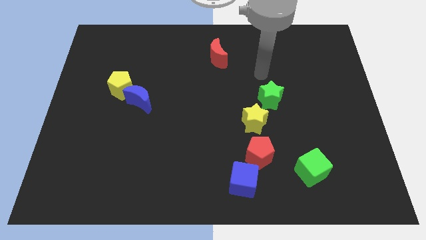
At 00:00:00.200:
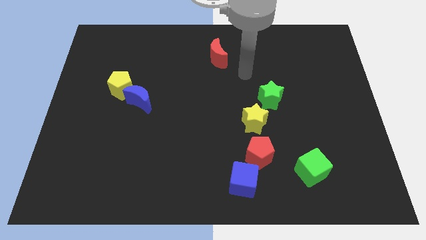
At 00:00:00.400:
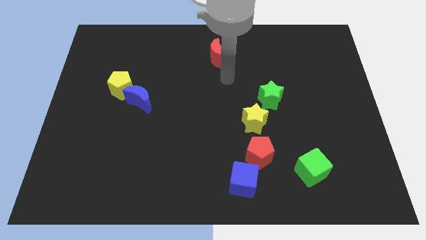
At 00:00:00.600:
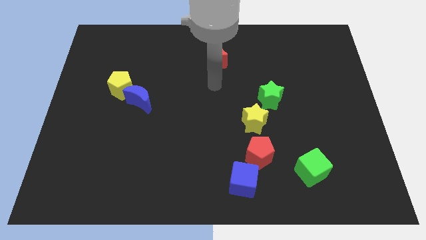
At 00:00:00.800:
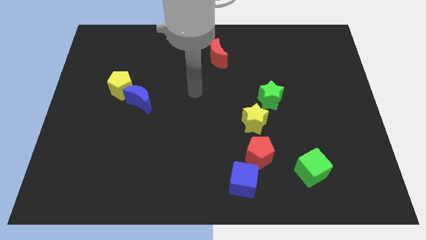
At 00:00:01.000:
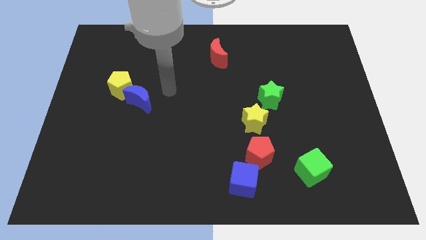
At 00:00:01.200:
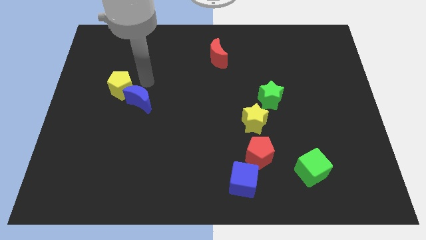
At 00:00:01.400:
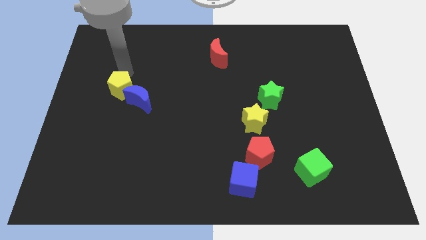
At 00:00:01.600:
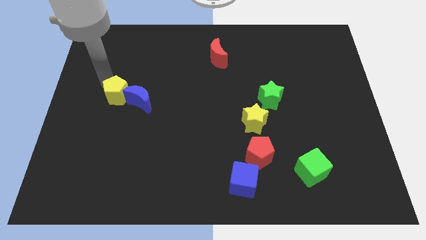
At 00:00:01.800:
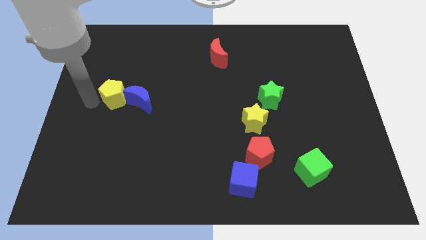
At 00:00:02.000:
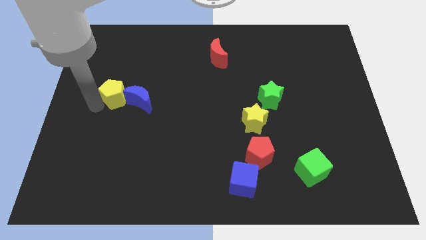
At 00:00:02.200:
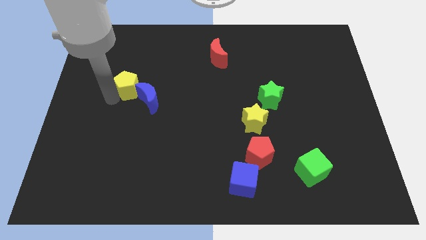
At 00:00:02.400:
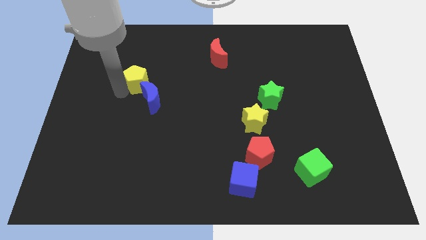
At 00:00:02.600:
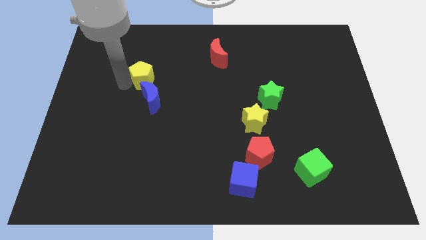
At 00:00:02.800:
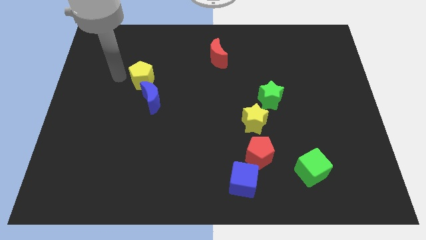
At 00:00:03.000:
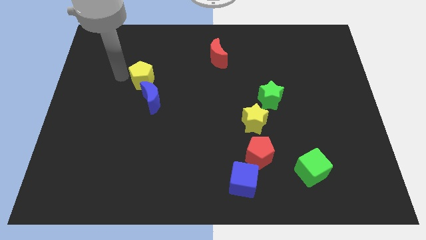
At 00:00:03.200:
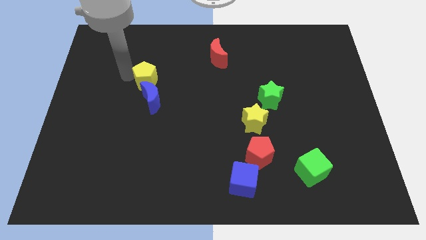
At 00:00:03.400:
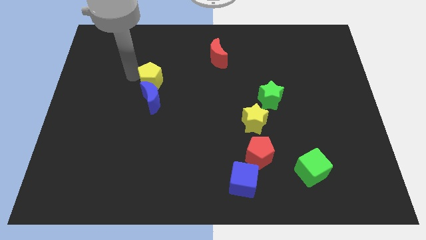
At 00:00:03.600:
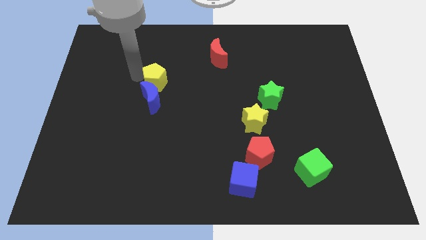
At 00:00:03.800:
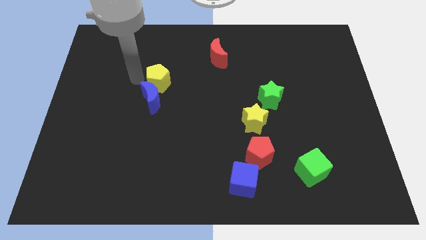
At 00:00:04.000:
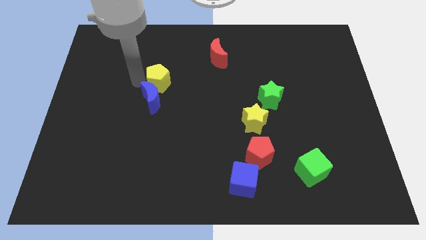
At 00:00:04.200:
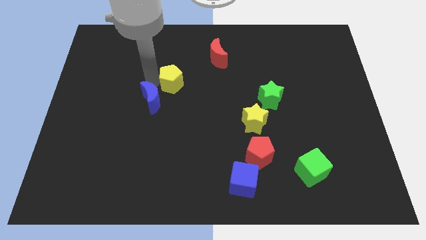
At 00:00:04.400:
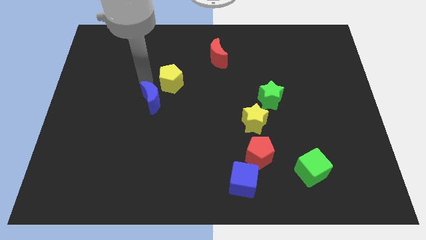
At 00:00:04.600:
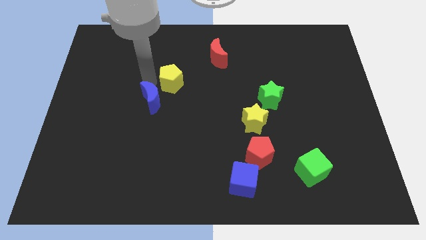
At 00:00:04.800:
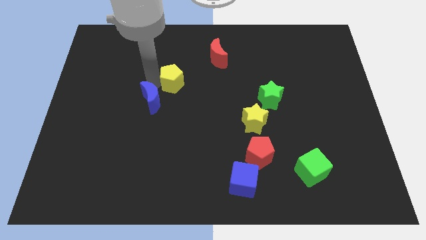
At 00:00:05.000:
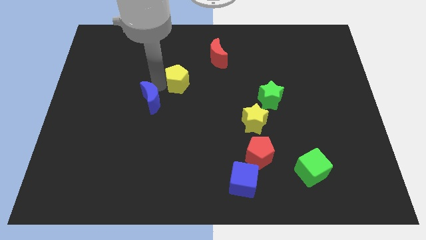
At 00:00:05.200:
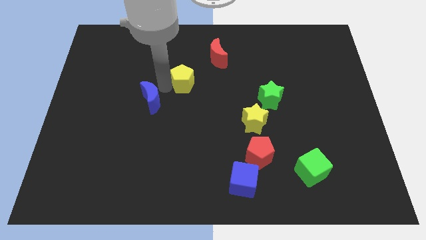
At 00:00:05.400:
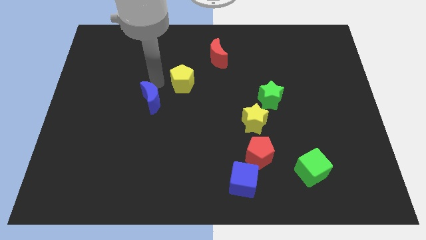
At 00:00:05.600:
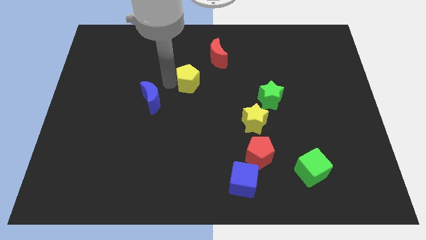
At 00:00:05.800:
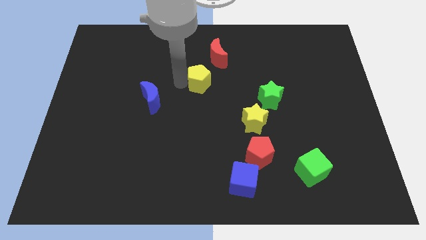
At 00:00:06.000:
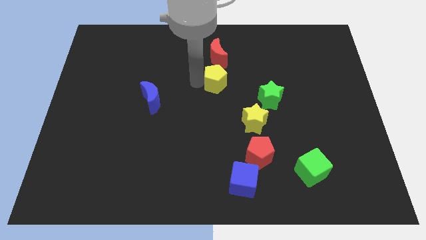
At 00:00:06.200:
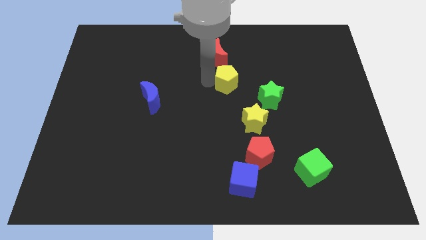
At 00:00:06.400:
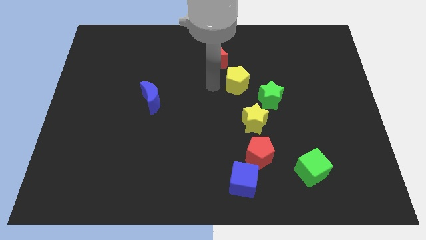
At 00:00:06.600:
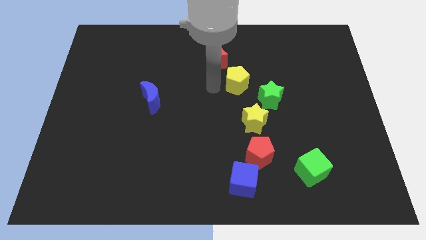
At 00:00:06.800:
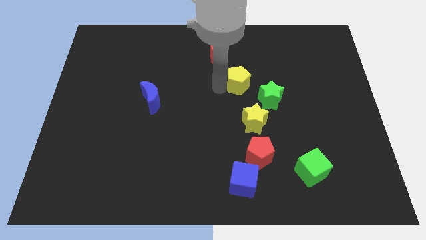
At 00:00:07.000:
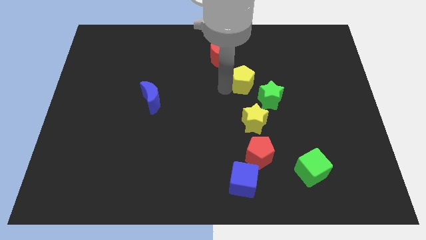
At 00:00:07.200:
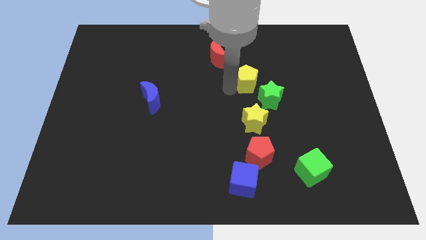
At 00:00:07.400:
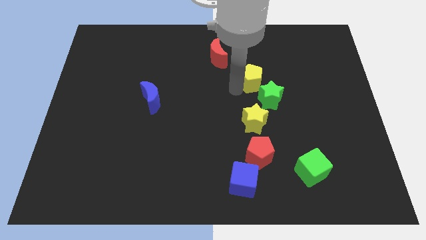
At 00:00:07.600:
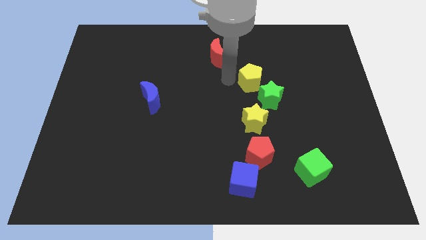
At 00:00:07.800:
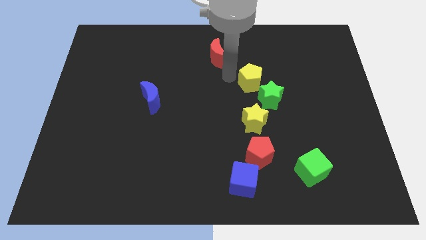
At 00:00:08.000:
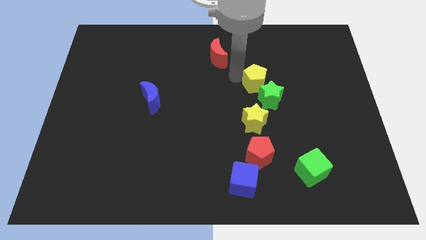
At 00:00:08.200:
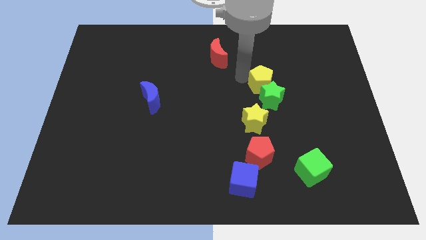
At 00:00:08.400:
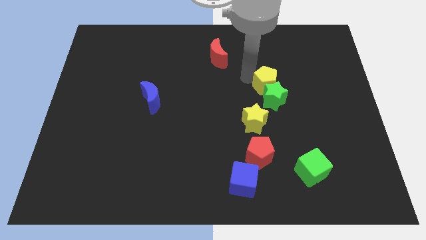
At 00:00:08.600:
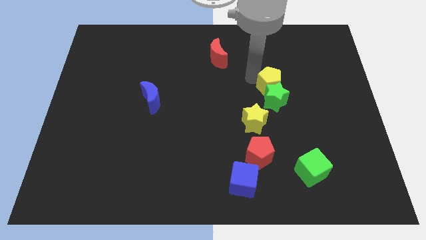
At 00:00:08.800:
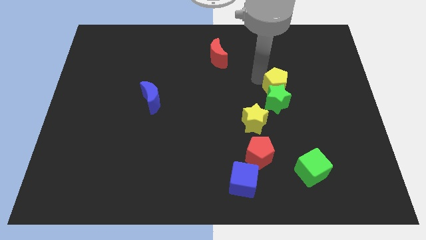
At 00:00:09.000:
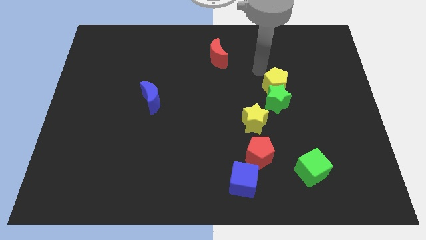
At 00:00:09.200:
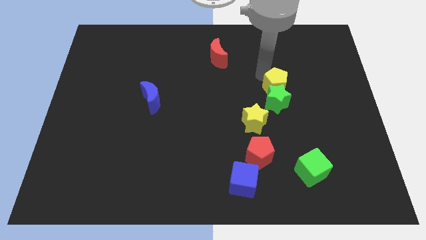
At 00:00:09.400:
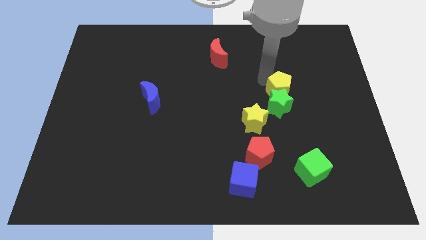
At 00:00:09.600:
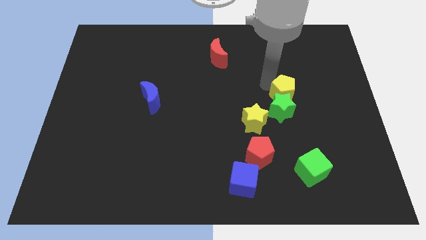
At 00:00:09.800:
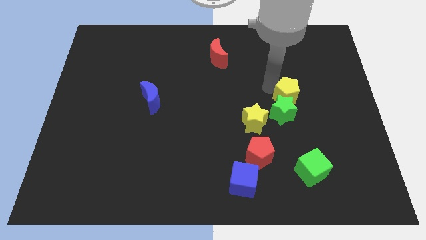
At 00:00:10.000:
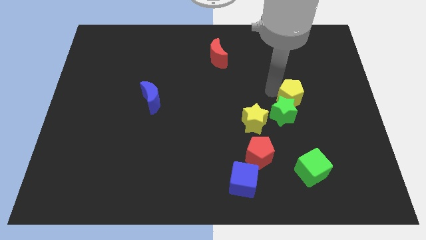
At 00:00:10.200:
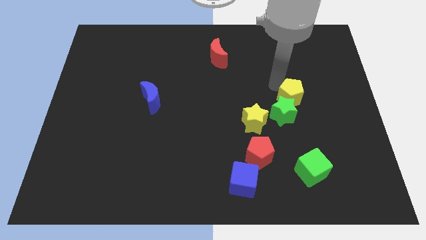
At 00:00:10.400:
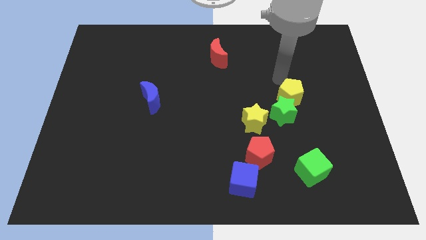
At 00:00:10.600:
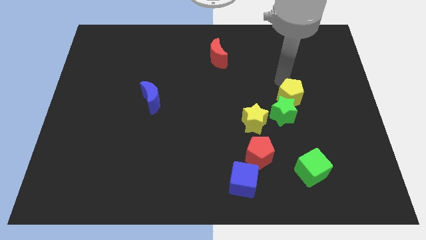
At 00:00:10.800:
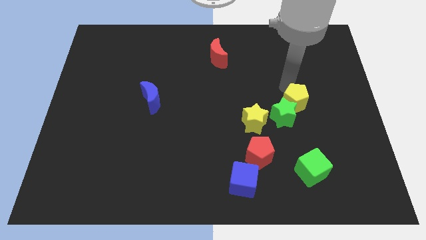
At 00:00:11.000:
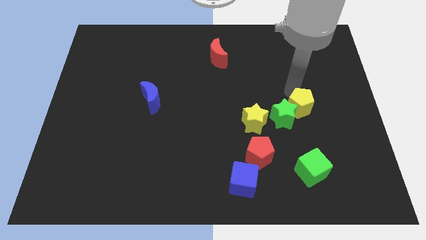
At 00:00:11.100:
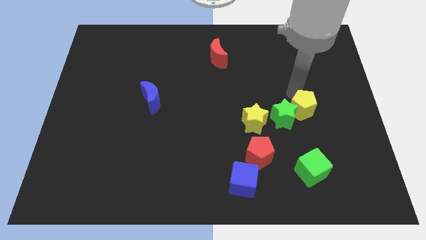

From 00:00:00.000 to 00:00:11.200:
move the yellow pentagon to the top side of the green cube

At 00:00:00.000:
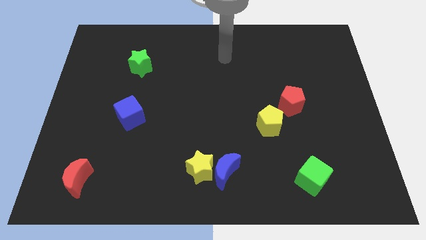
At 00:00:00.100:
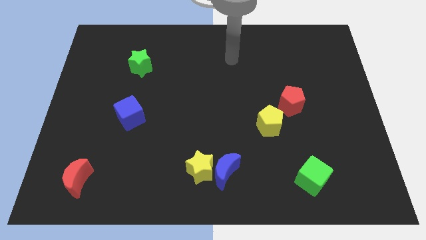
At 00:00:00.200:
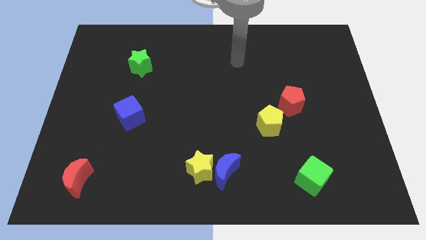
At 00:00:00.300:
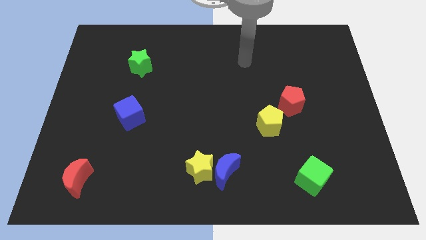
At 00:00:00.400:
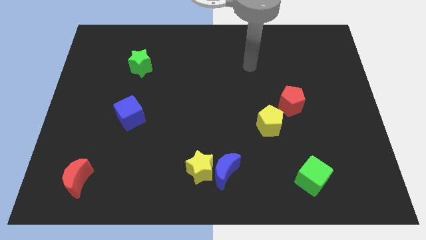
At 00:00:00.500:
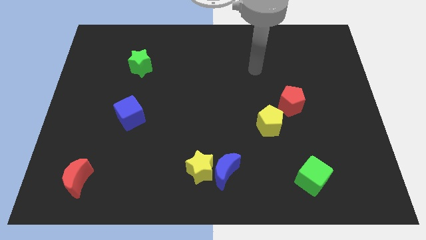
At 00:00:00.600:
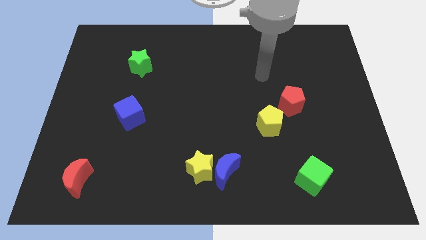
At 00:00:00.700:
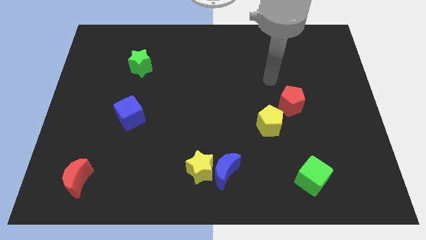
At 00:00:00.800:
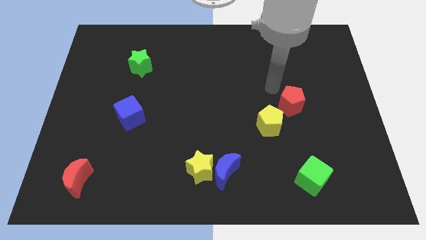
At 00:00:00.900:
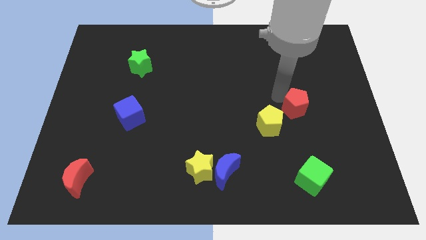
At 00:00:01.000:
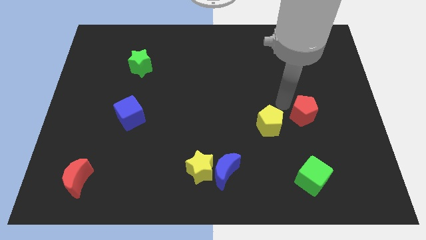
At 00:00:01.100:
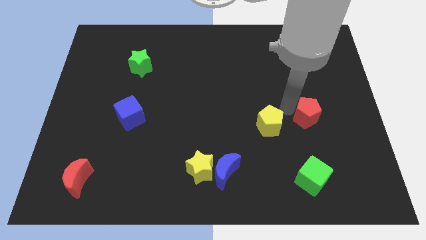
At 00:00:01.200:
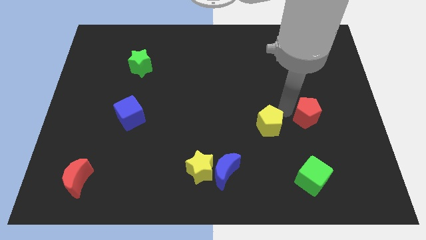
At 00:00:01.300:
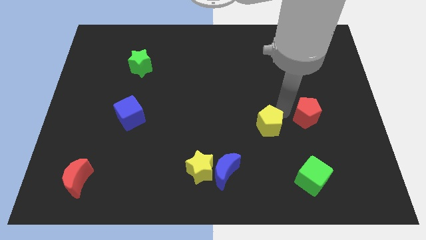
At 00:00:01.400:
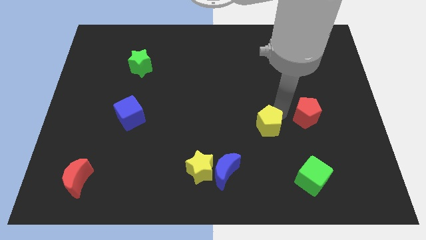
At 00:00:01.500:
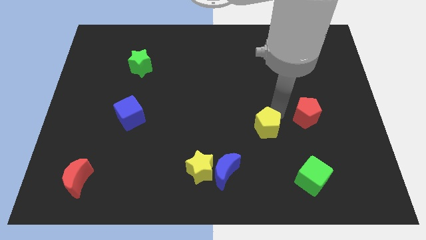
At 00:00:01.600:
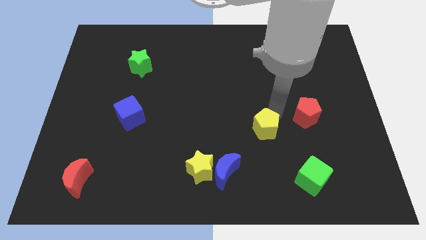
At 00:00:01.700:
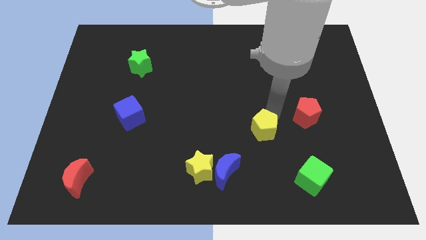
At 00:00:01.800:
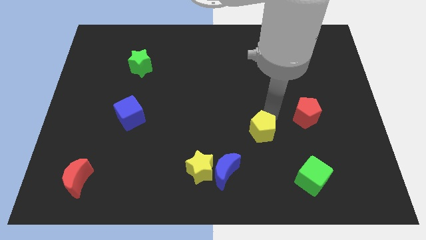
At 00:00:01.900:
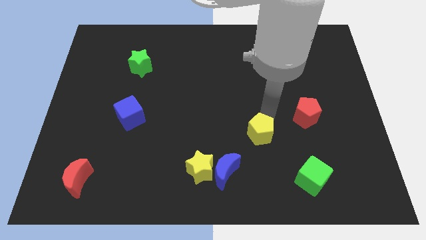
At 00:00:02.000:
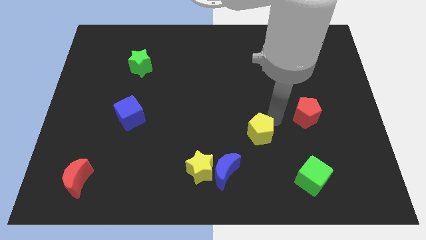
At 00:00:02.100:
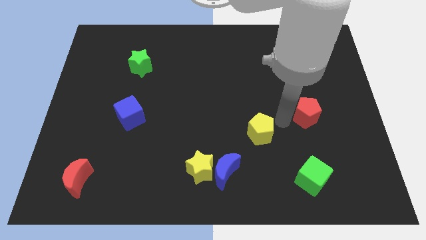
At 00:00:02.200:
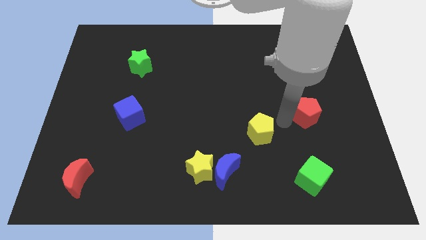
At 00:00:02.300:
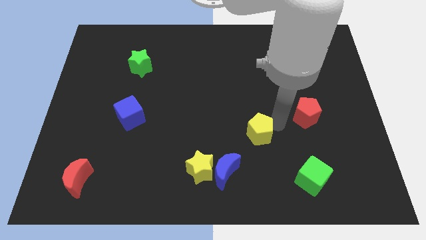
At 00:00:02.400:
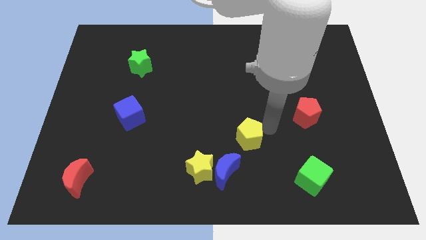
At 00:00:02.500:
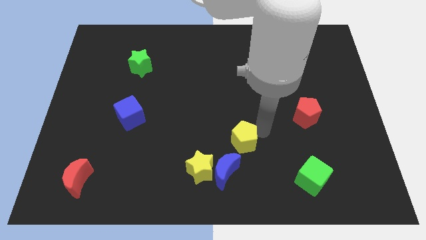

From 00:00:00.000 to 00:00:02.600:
push the yellow pentagon to the top right side of the yellow star
